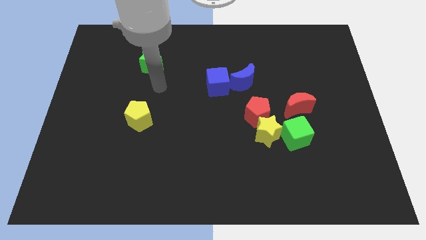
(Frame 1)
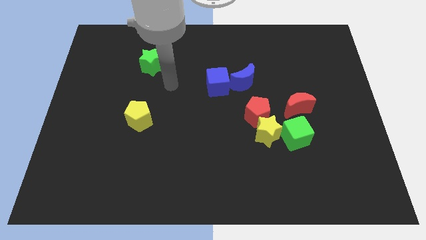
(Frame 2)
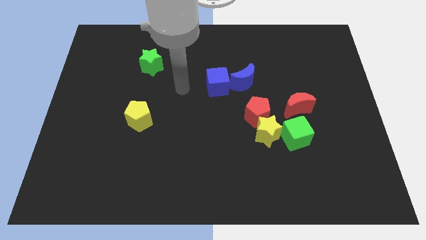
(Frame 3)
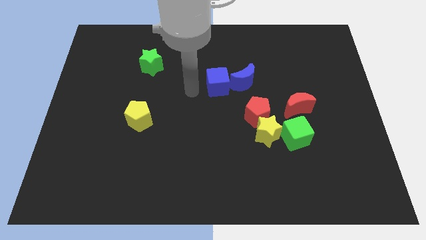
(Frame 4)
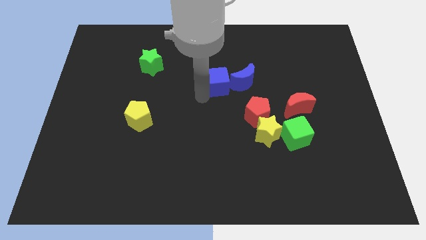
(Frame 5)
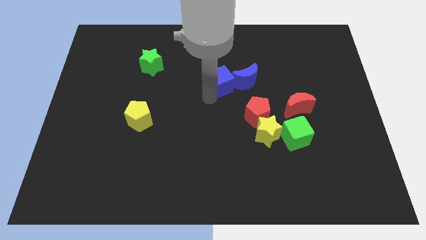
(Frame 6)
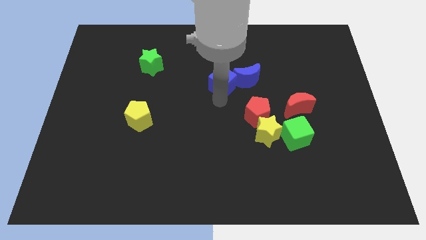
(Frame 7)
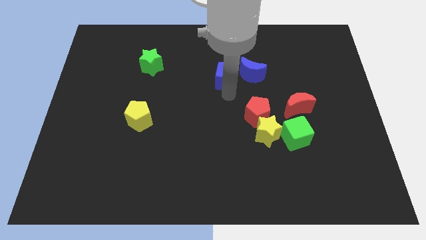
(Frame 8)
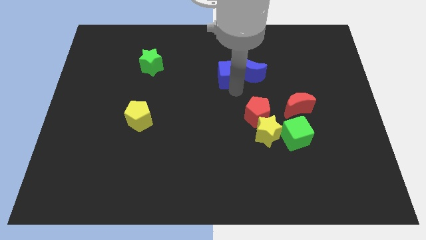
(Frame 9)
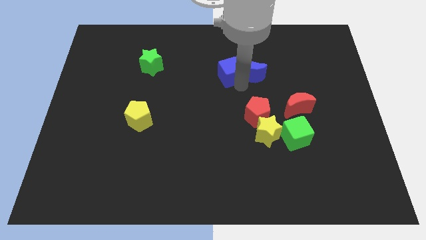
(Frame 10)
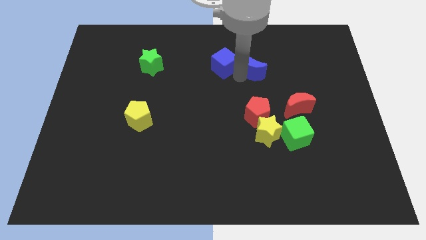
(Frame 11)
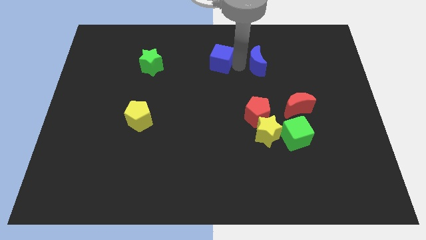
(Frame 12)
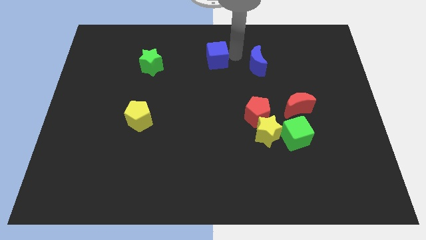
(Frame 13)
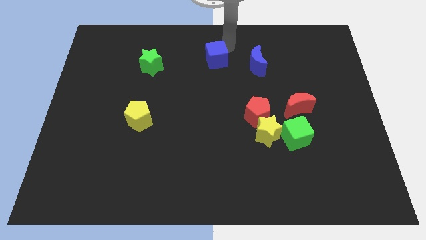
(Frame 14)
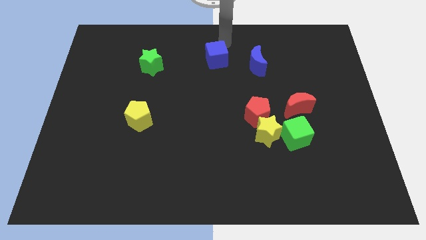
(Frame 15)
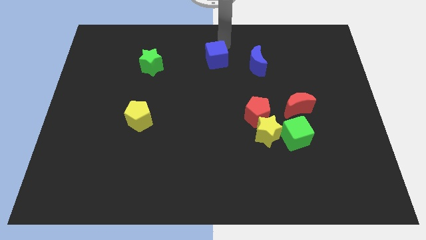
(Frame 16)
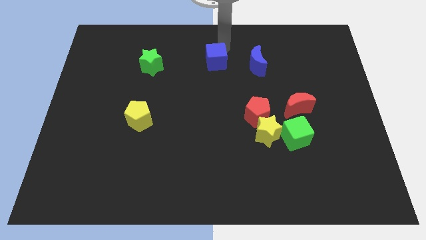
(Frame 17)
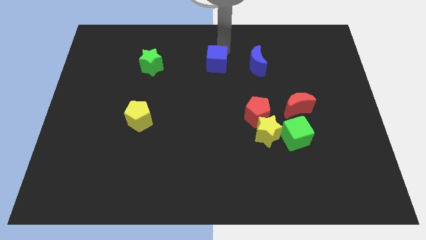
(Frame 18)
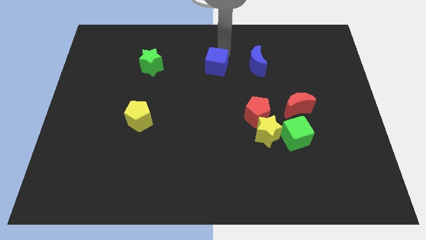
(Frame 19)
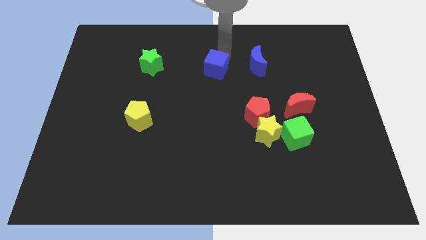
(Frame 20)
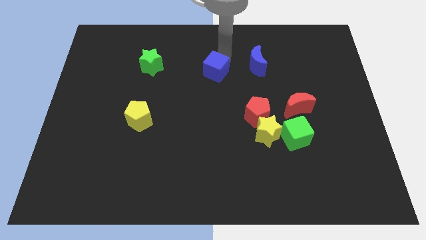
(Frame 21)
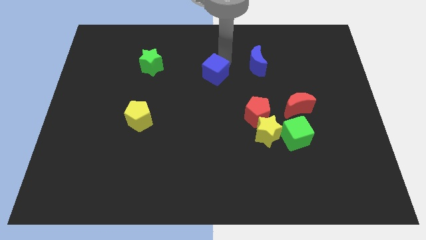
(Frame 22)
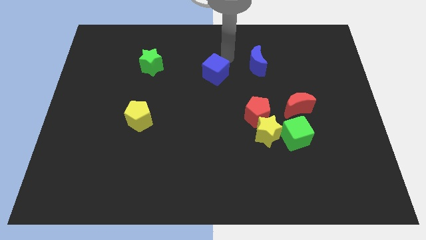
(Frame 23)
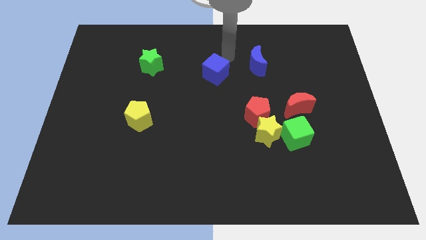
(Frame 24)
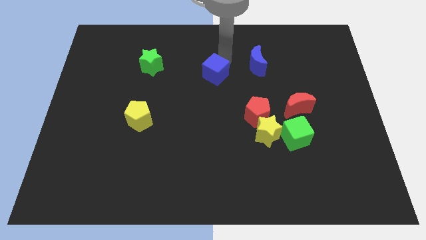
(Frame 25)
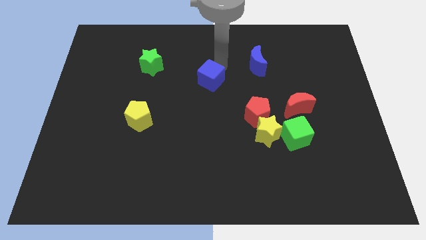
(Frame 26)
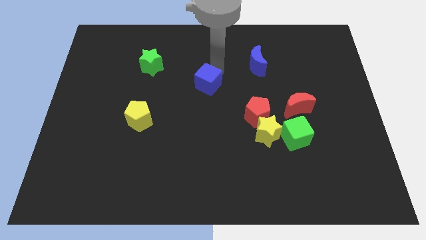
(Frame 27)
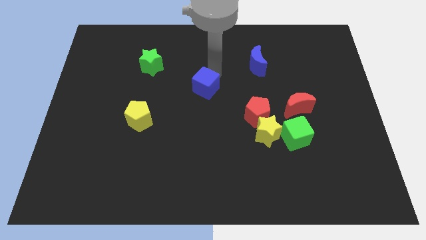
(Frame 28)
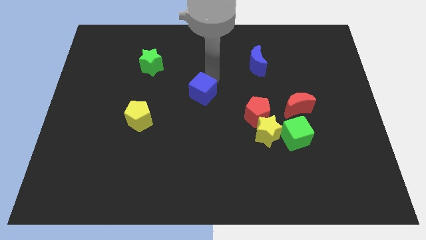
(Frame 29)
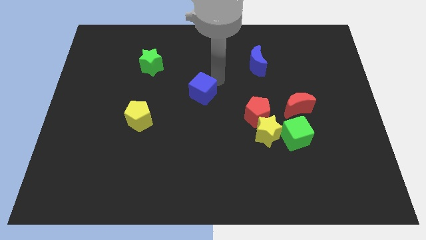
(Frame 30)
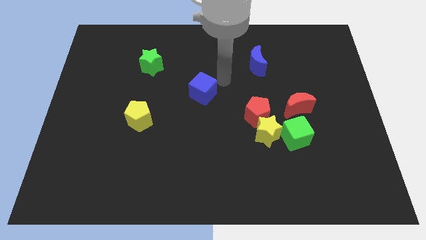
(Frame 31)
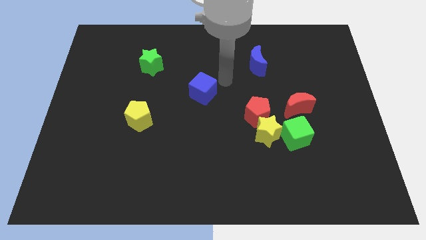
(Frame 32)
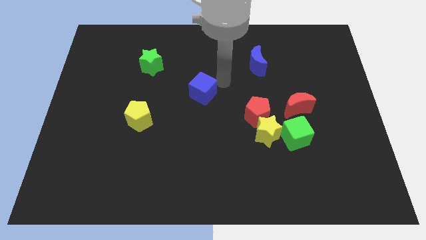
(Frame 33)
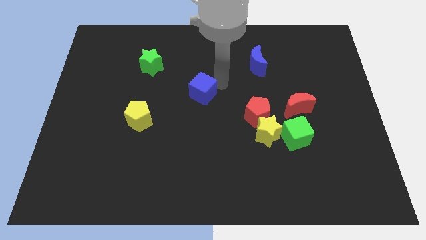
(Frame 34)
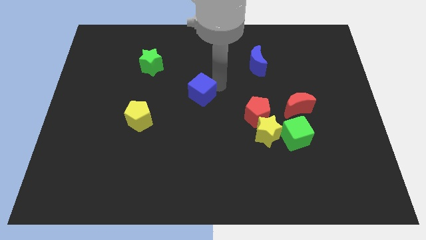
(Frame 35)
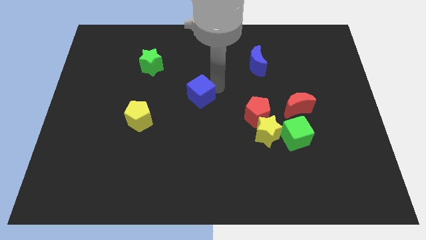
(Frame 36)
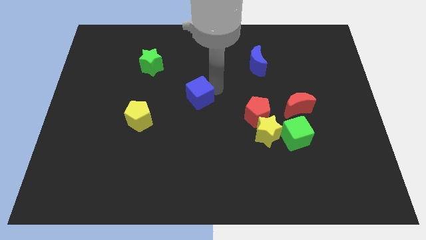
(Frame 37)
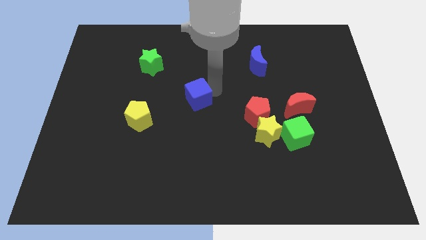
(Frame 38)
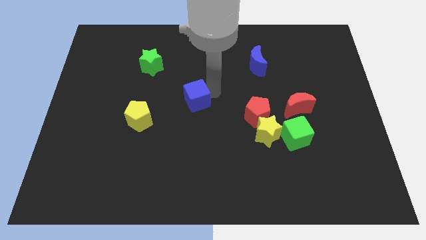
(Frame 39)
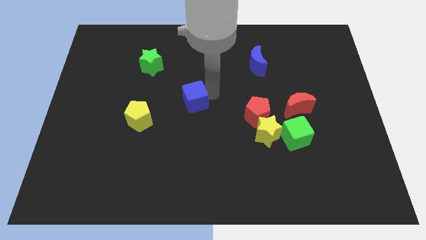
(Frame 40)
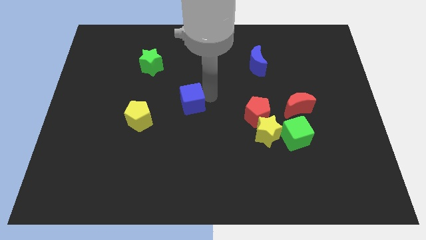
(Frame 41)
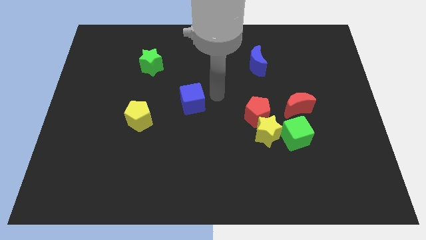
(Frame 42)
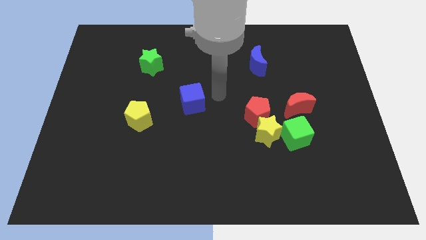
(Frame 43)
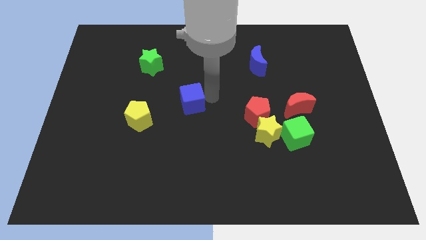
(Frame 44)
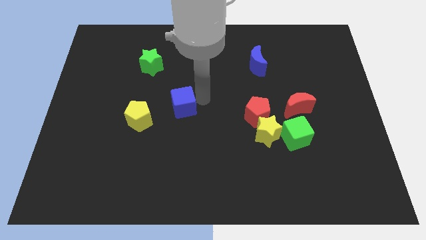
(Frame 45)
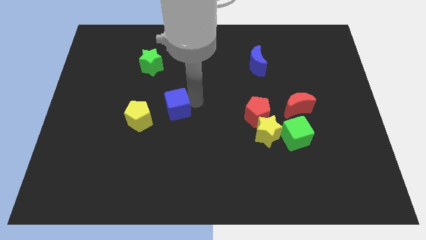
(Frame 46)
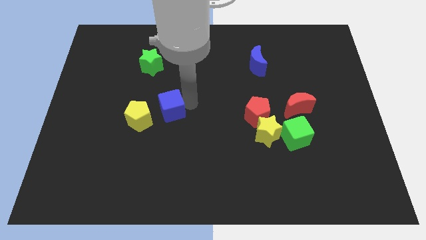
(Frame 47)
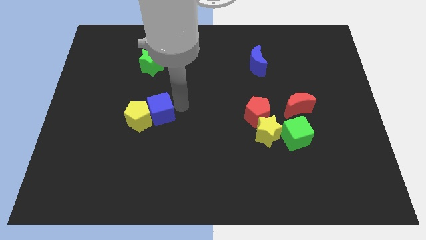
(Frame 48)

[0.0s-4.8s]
slide the blue cube to the yellow pentagon

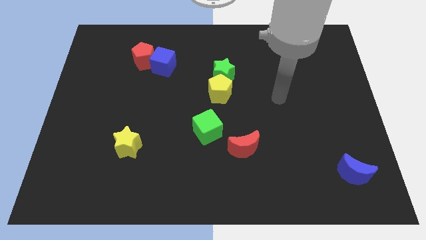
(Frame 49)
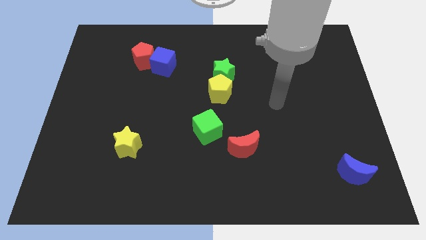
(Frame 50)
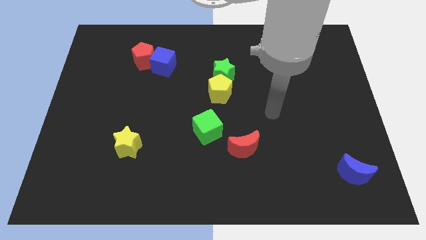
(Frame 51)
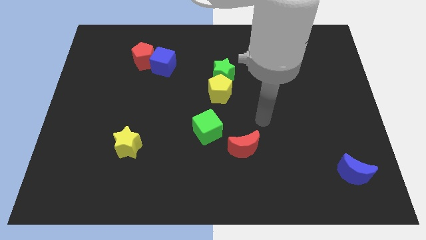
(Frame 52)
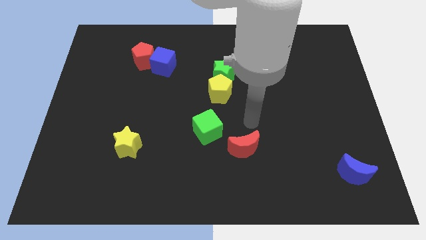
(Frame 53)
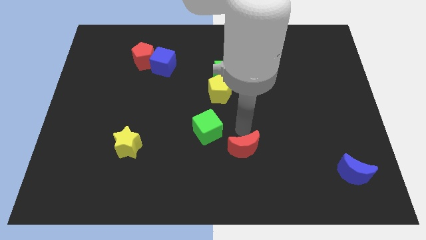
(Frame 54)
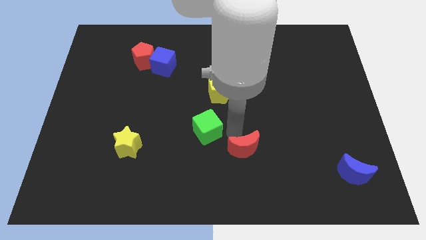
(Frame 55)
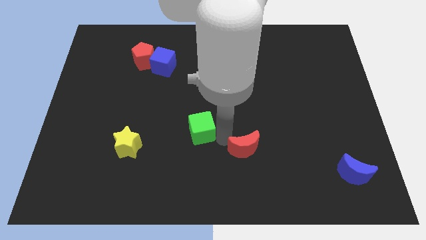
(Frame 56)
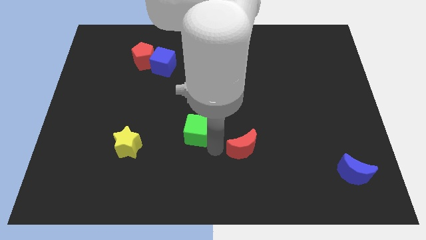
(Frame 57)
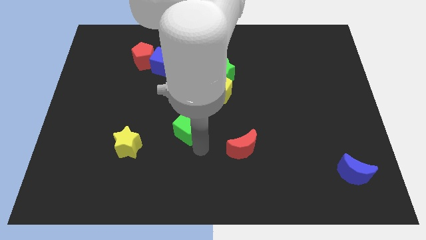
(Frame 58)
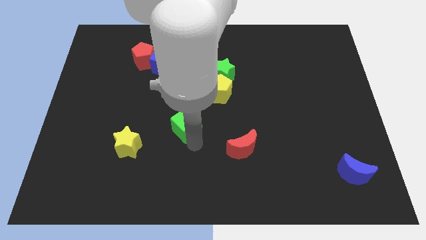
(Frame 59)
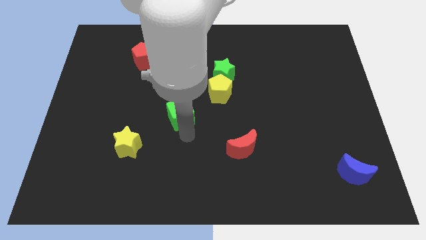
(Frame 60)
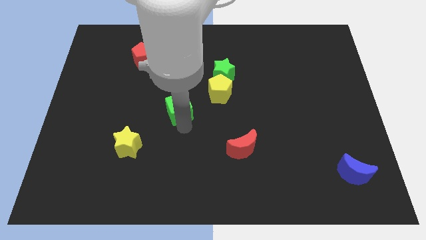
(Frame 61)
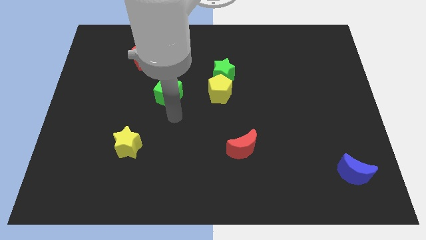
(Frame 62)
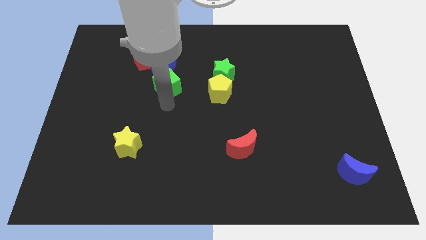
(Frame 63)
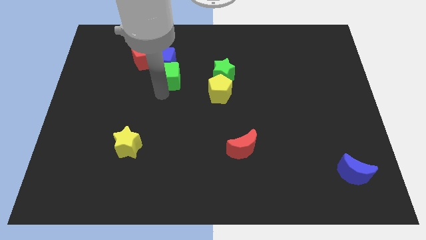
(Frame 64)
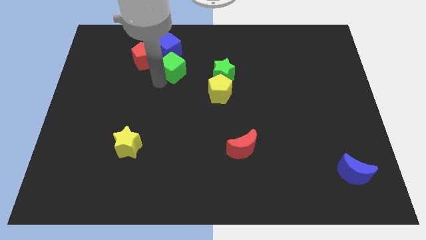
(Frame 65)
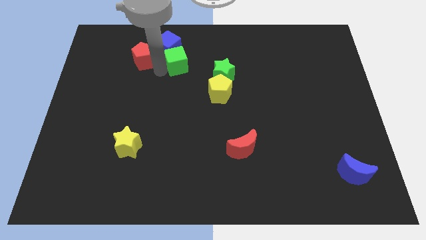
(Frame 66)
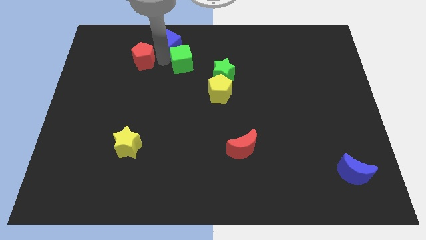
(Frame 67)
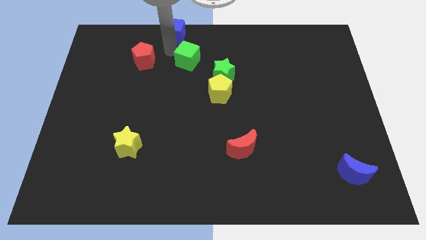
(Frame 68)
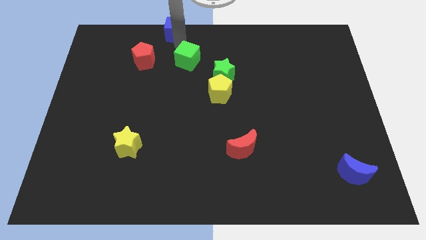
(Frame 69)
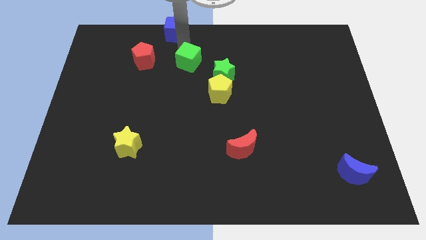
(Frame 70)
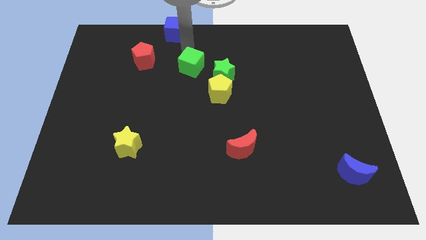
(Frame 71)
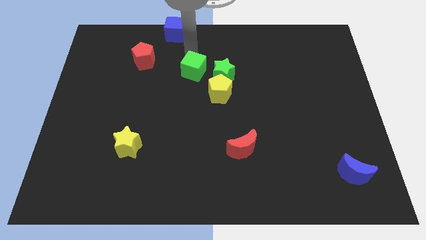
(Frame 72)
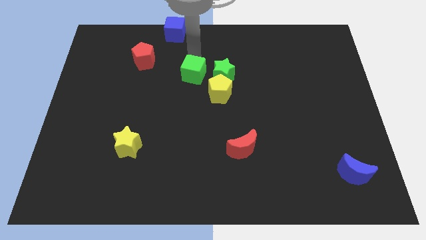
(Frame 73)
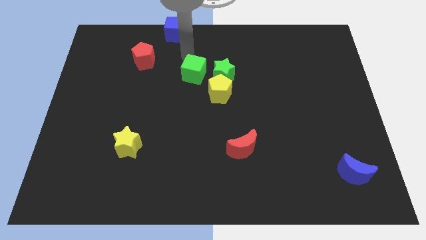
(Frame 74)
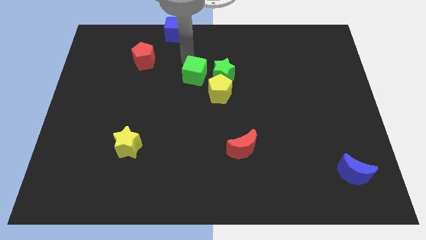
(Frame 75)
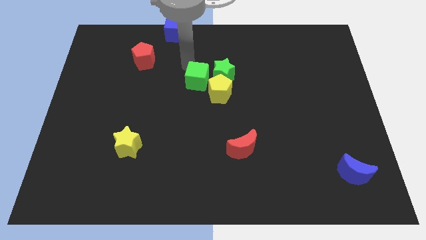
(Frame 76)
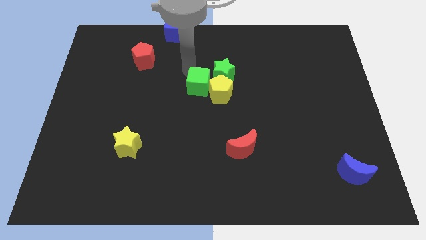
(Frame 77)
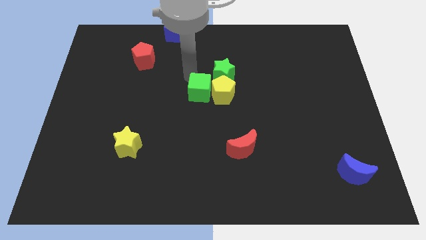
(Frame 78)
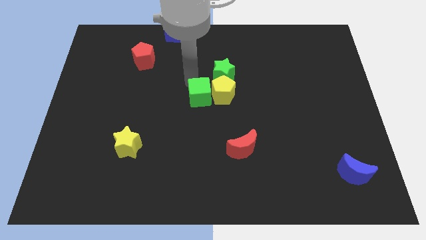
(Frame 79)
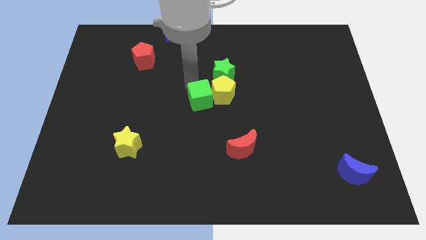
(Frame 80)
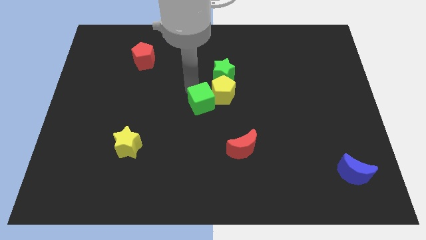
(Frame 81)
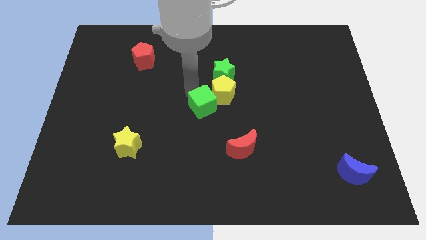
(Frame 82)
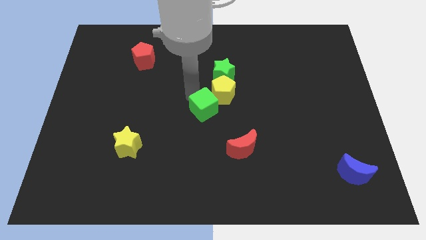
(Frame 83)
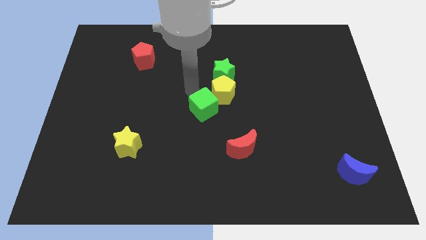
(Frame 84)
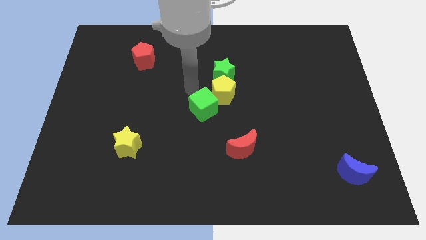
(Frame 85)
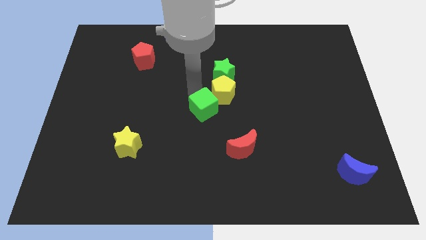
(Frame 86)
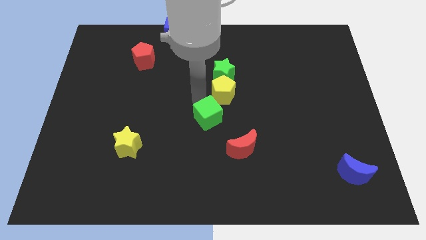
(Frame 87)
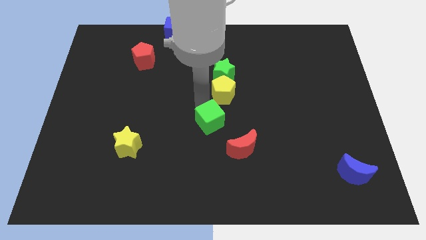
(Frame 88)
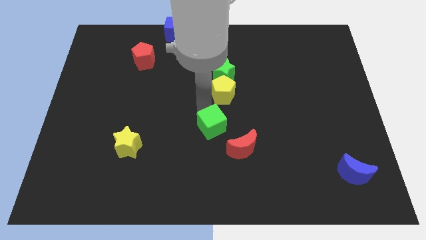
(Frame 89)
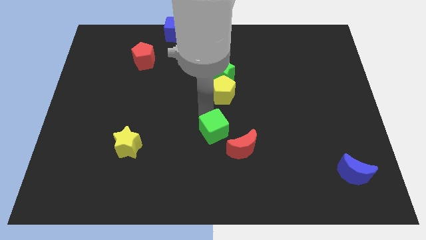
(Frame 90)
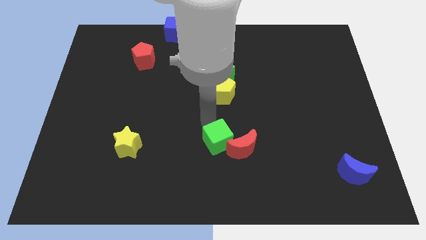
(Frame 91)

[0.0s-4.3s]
slide the green cube close to the red moon
